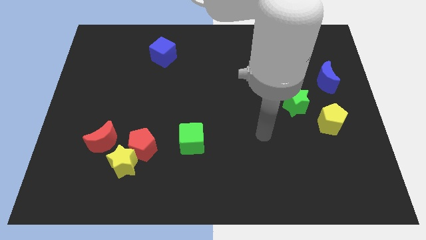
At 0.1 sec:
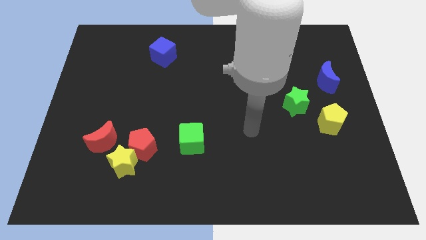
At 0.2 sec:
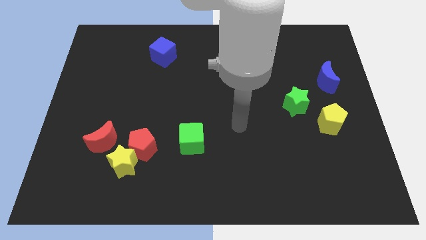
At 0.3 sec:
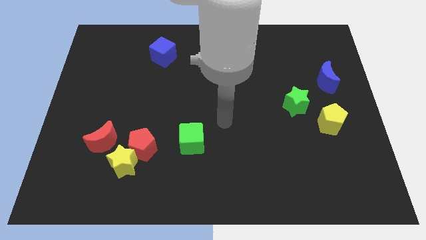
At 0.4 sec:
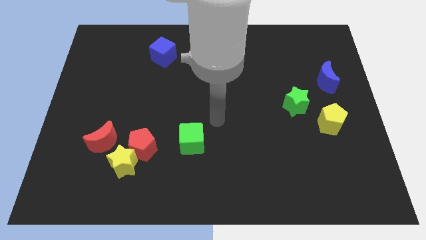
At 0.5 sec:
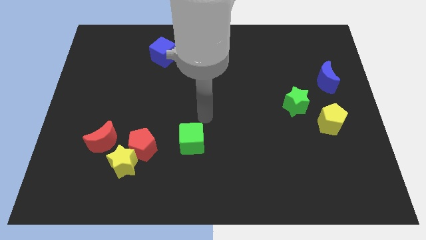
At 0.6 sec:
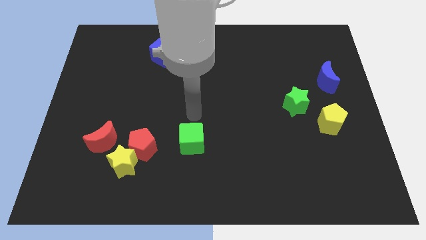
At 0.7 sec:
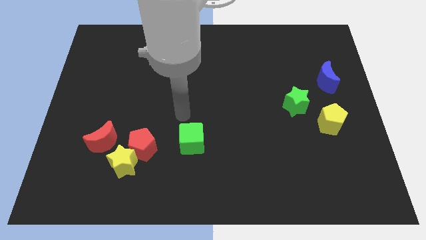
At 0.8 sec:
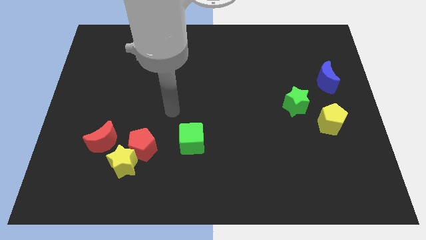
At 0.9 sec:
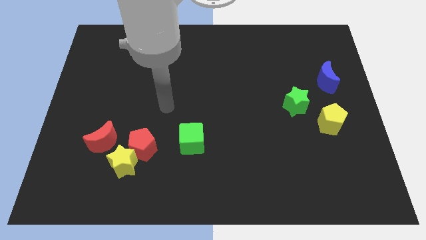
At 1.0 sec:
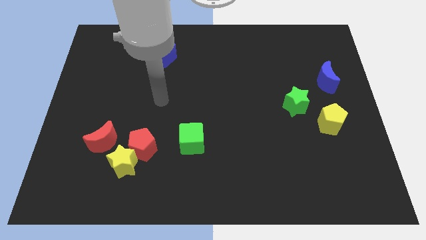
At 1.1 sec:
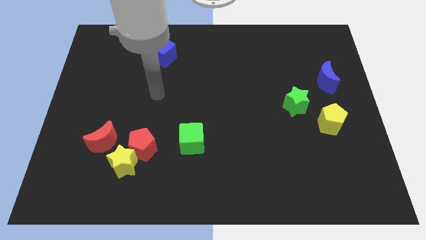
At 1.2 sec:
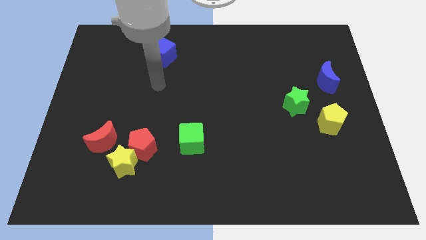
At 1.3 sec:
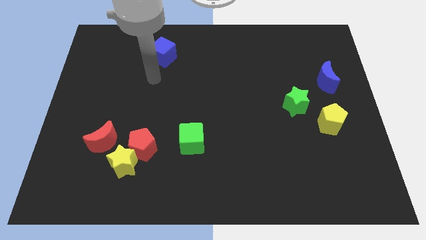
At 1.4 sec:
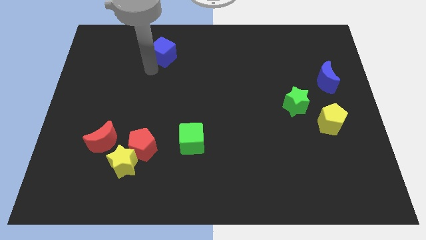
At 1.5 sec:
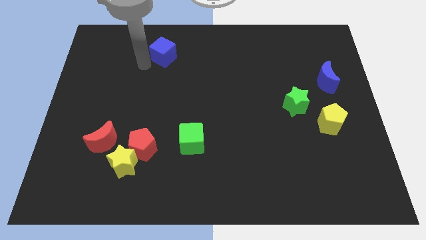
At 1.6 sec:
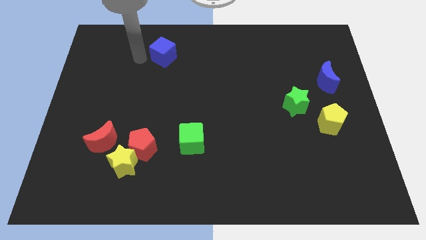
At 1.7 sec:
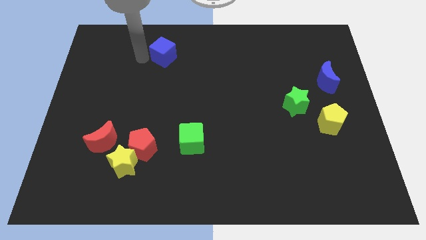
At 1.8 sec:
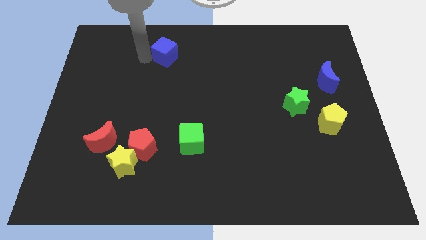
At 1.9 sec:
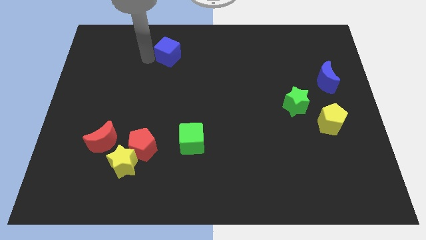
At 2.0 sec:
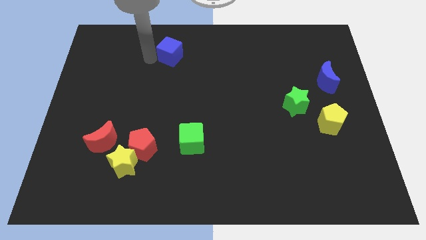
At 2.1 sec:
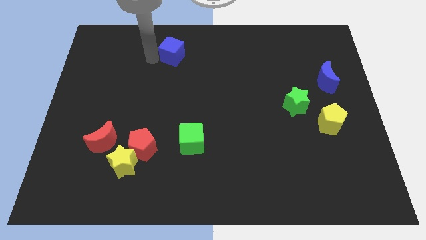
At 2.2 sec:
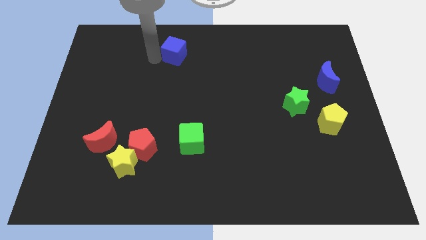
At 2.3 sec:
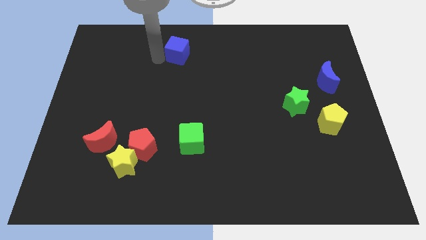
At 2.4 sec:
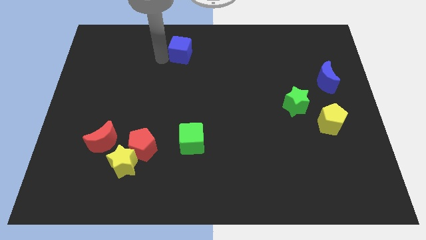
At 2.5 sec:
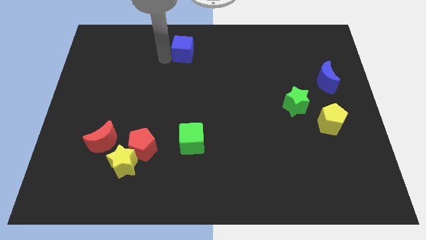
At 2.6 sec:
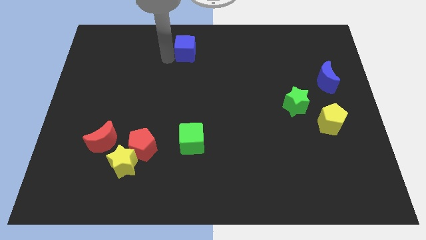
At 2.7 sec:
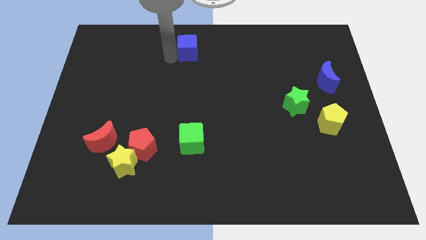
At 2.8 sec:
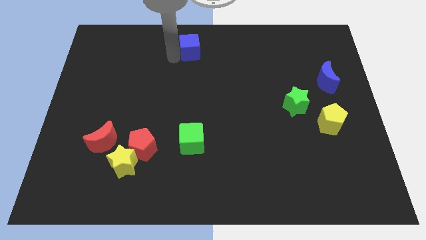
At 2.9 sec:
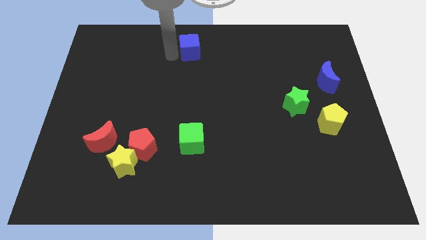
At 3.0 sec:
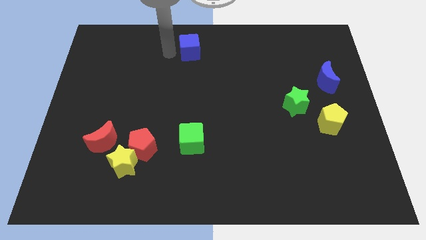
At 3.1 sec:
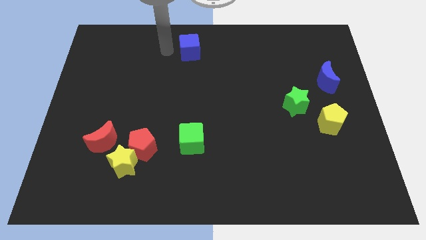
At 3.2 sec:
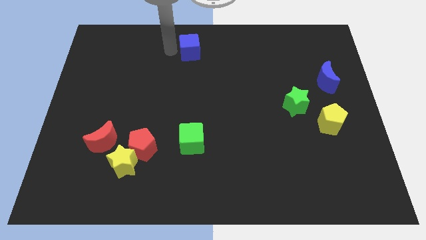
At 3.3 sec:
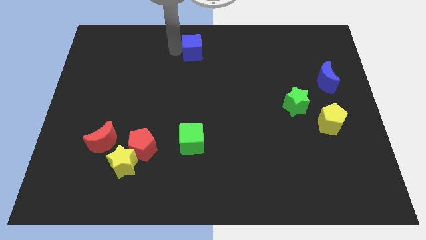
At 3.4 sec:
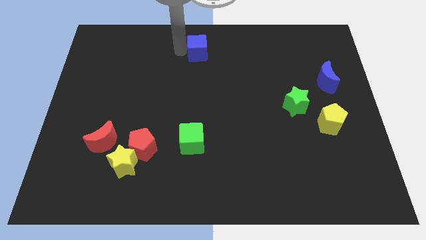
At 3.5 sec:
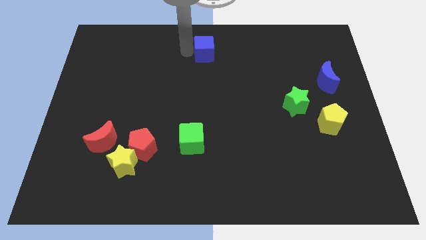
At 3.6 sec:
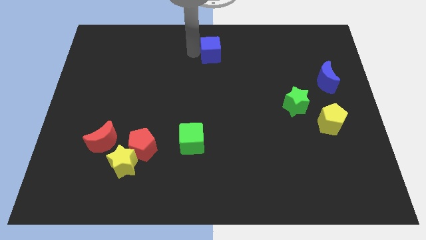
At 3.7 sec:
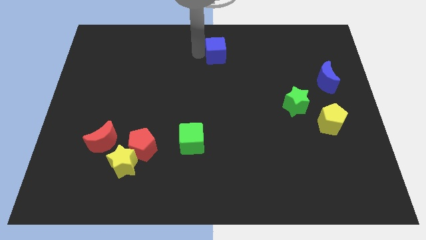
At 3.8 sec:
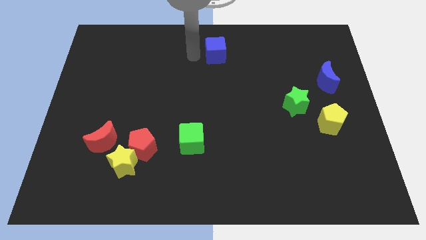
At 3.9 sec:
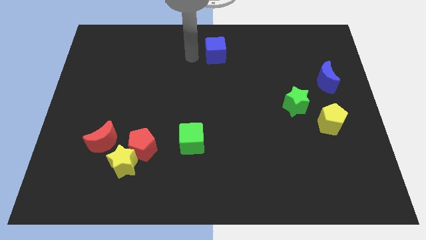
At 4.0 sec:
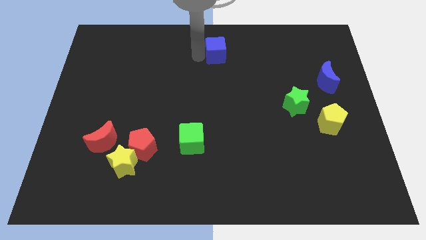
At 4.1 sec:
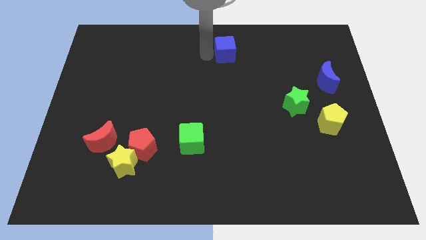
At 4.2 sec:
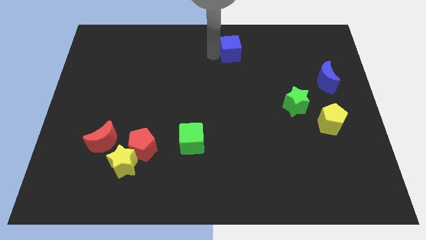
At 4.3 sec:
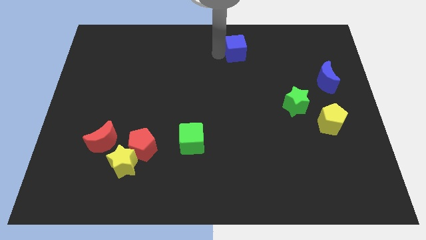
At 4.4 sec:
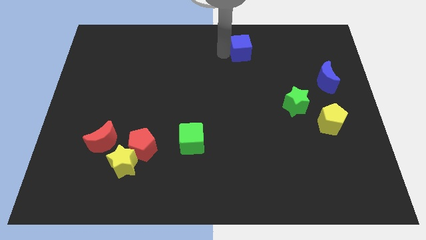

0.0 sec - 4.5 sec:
push the blue cube to the right

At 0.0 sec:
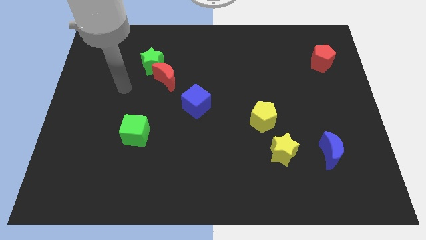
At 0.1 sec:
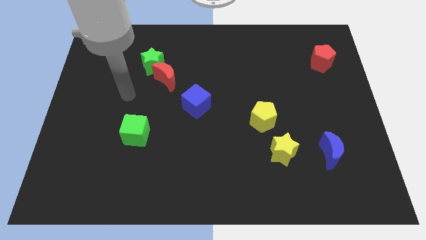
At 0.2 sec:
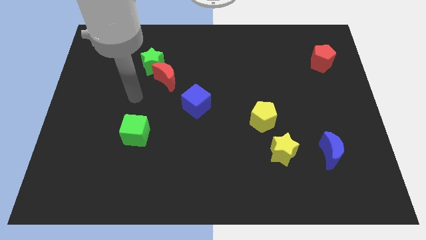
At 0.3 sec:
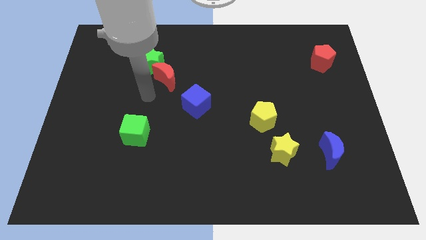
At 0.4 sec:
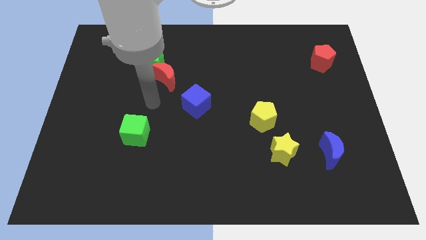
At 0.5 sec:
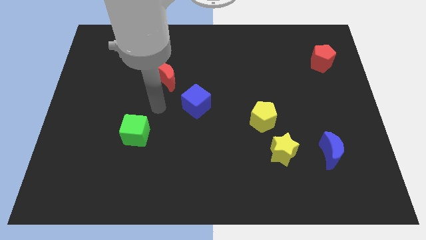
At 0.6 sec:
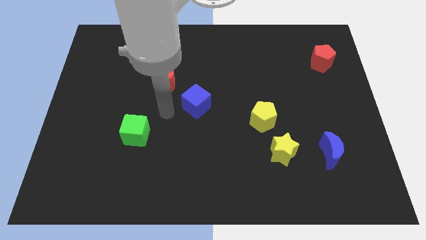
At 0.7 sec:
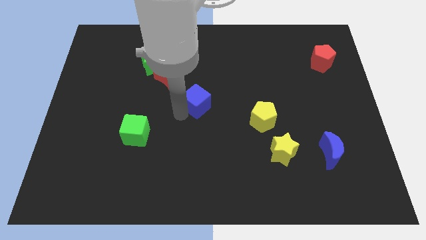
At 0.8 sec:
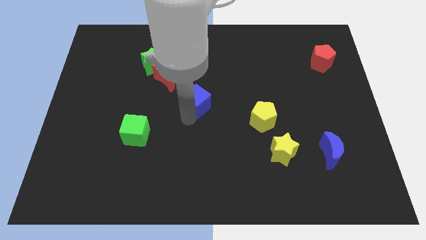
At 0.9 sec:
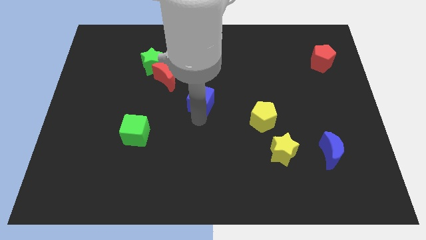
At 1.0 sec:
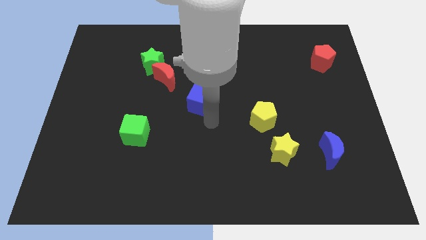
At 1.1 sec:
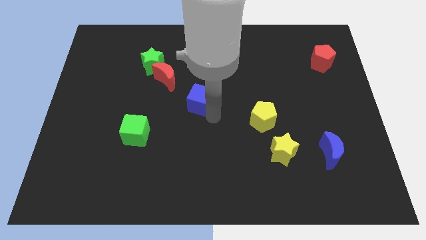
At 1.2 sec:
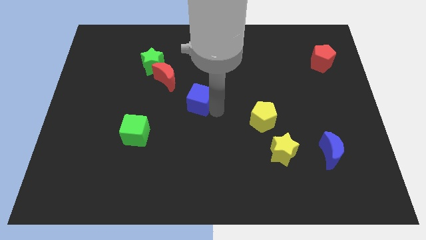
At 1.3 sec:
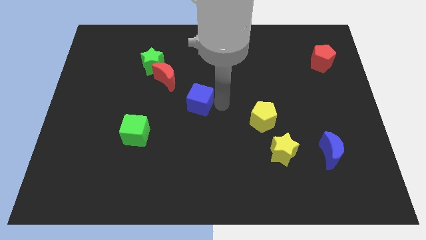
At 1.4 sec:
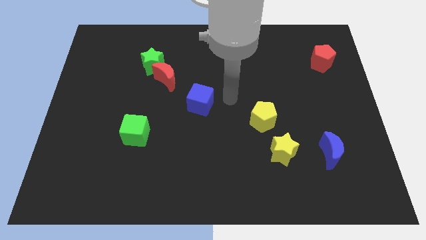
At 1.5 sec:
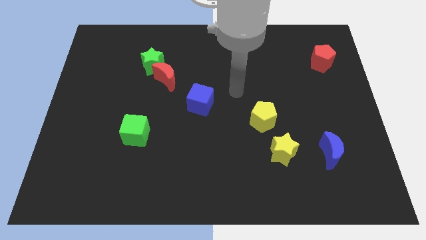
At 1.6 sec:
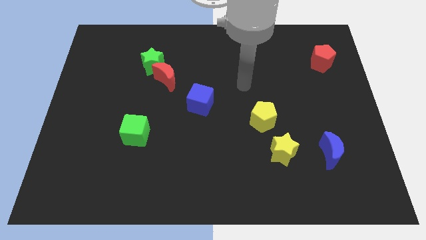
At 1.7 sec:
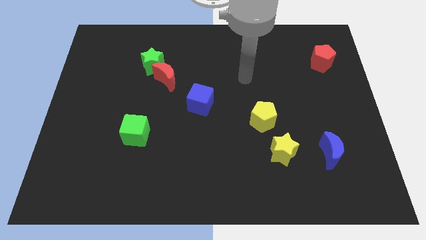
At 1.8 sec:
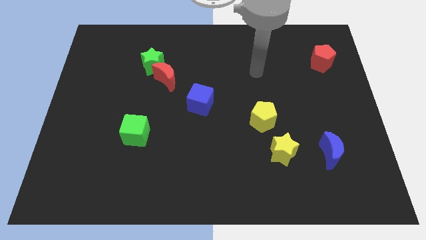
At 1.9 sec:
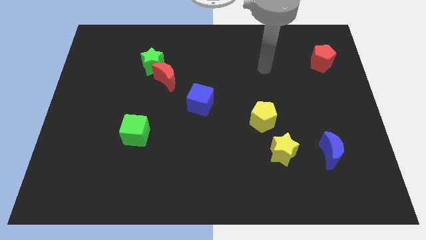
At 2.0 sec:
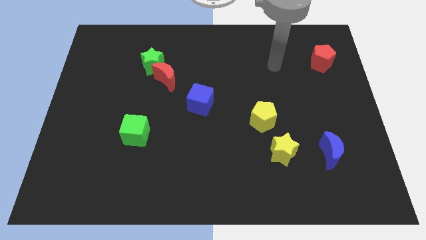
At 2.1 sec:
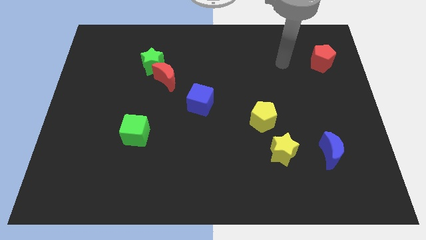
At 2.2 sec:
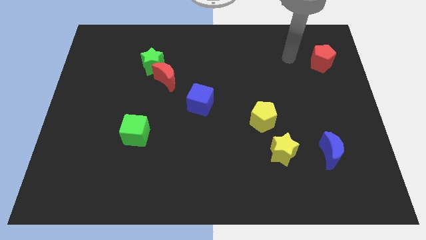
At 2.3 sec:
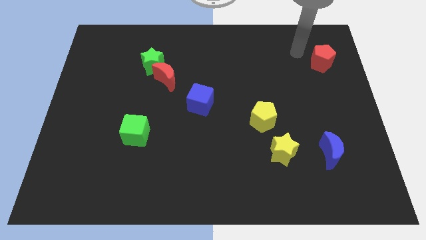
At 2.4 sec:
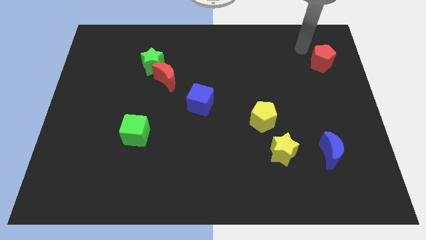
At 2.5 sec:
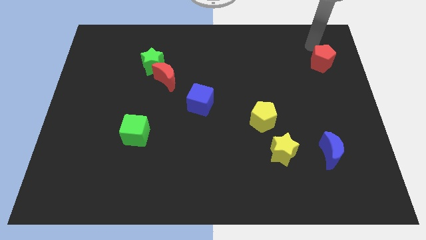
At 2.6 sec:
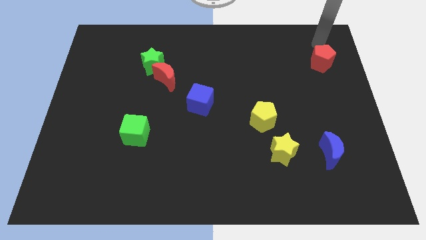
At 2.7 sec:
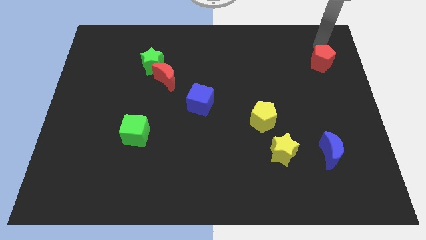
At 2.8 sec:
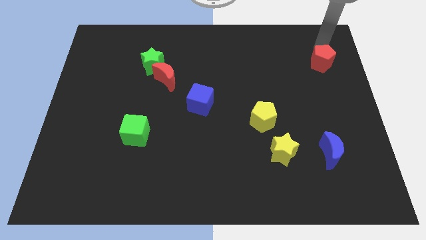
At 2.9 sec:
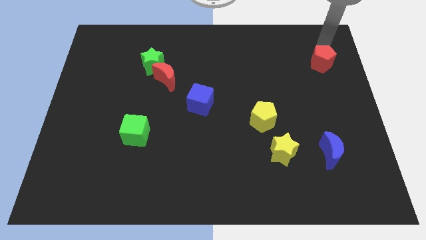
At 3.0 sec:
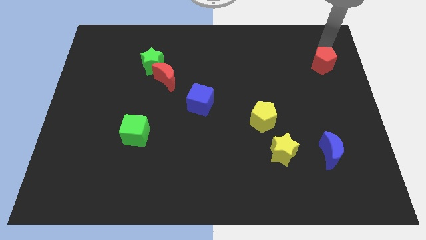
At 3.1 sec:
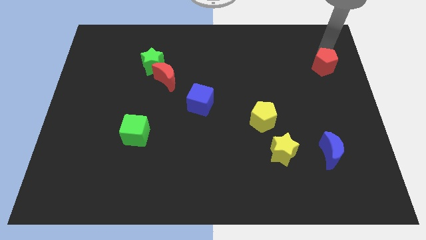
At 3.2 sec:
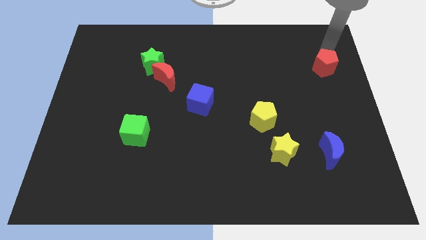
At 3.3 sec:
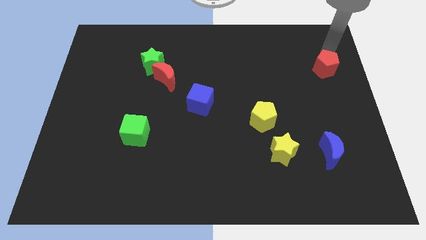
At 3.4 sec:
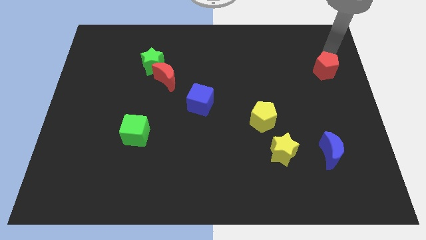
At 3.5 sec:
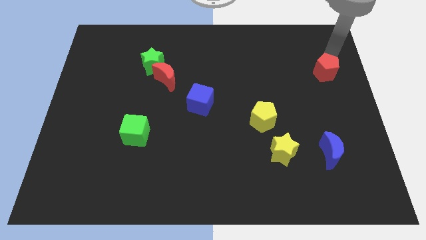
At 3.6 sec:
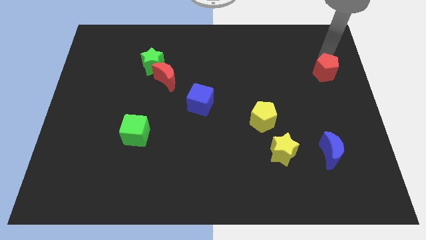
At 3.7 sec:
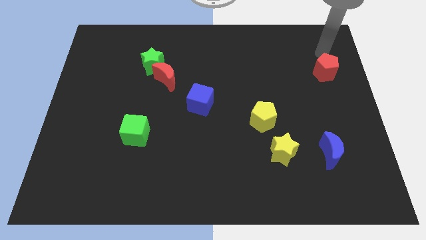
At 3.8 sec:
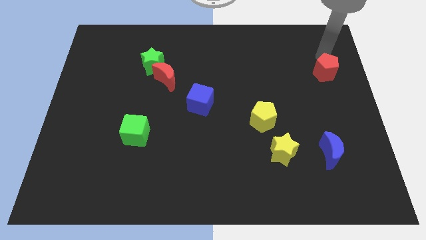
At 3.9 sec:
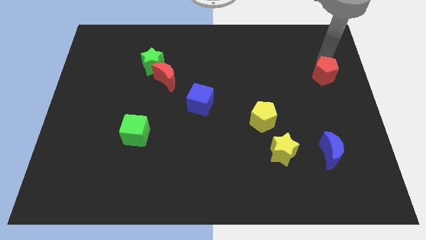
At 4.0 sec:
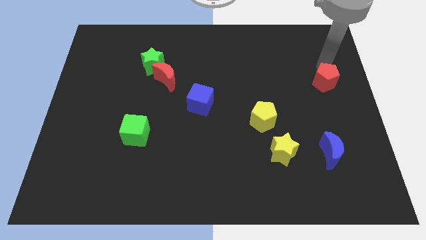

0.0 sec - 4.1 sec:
push the red pentagon downwards slightly
